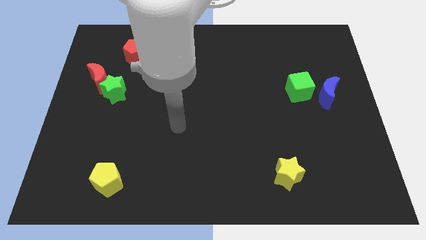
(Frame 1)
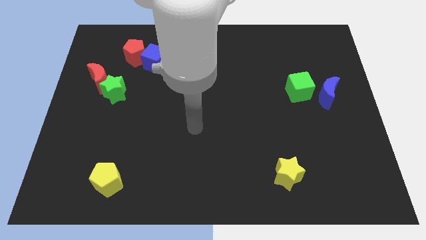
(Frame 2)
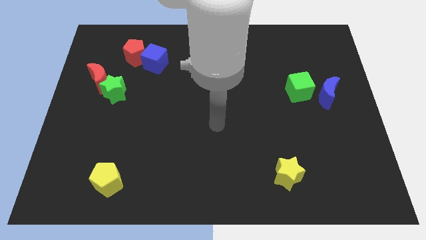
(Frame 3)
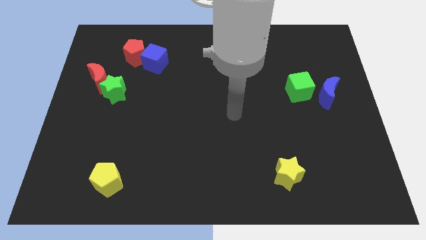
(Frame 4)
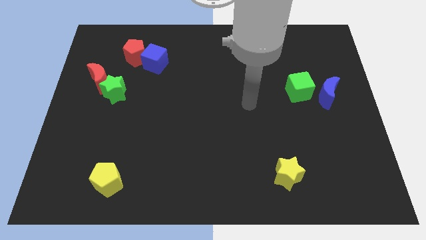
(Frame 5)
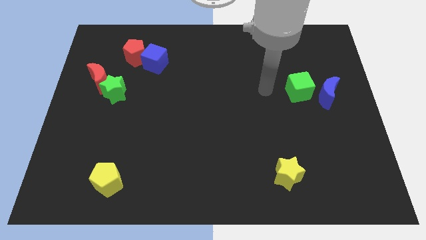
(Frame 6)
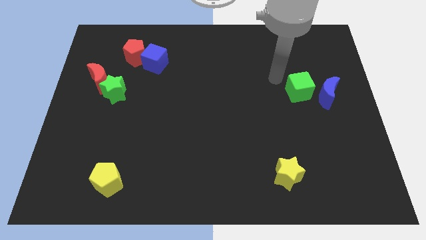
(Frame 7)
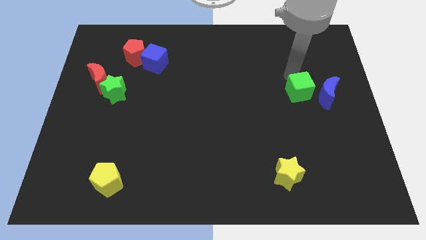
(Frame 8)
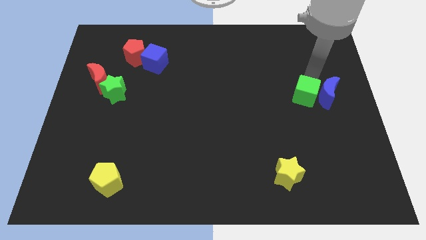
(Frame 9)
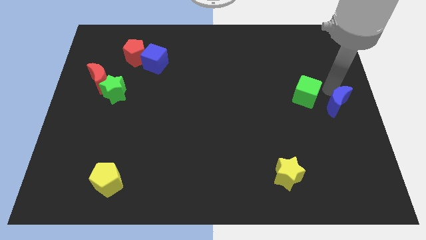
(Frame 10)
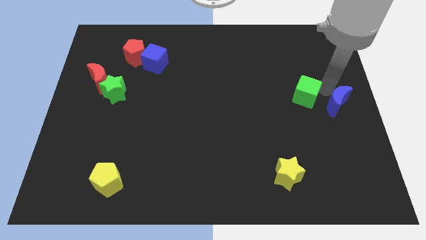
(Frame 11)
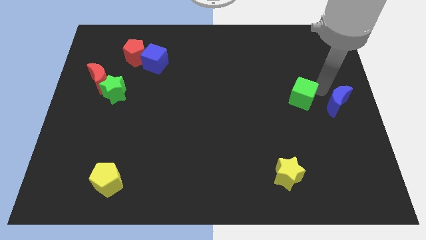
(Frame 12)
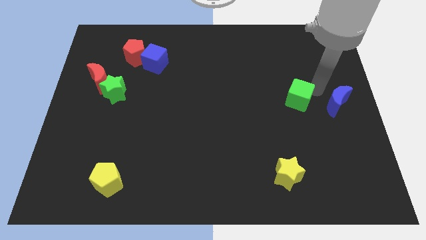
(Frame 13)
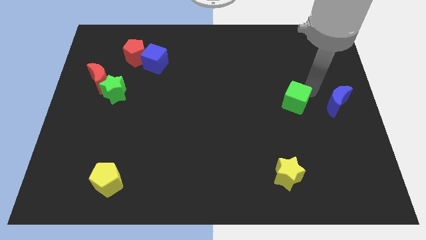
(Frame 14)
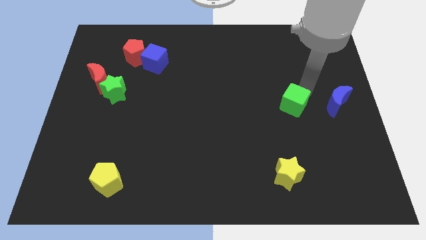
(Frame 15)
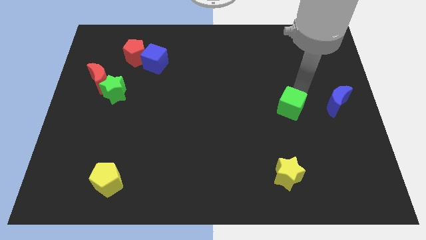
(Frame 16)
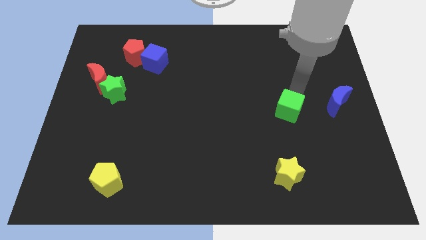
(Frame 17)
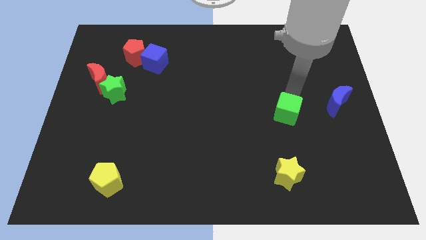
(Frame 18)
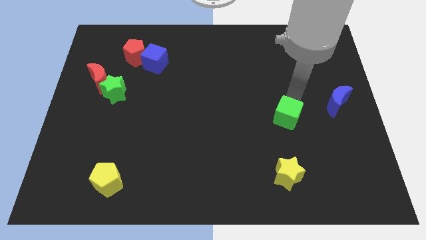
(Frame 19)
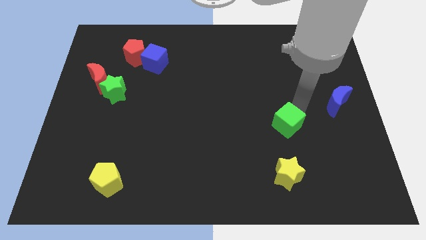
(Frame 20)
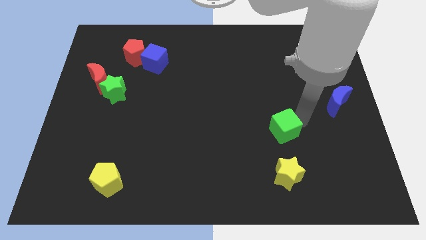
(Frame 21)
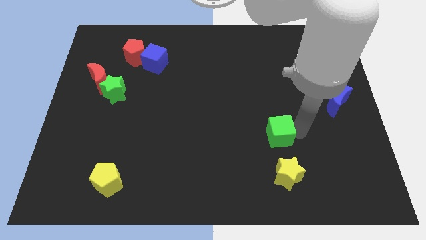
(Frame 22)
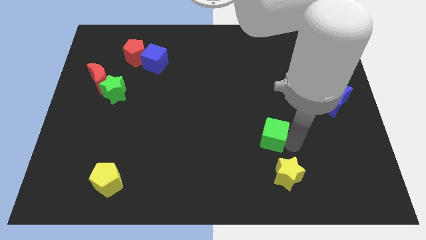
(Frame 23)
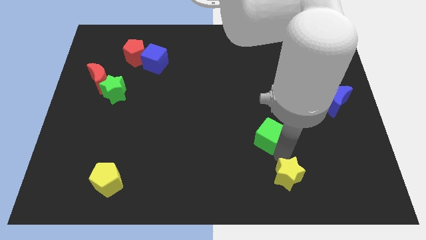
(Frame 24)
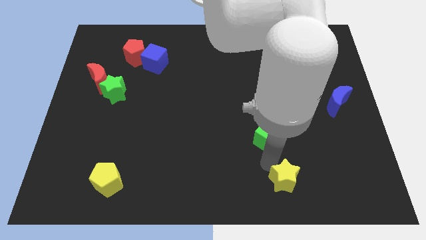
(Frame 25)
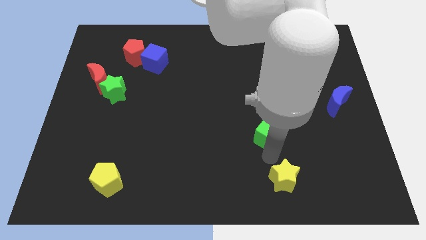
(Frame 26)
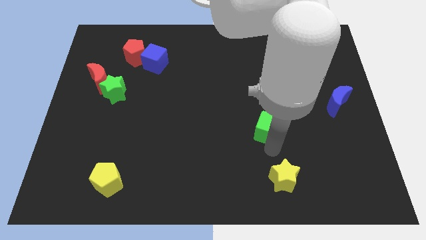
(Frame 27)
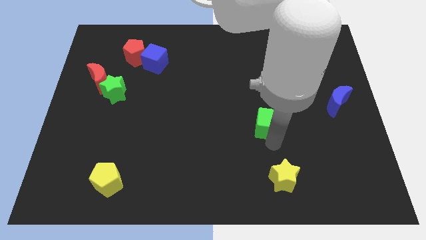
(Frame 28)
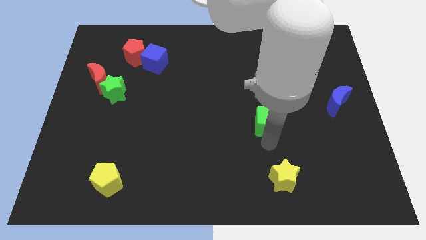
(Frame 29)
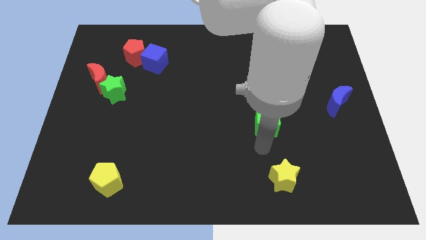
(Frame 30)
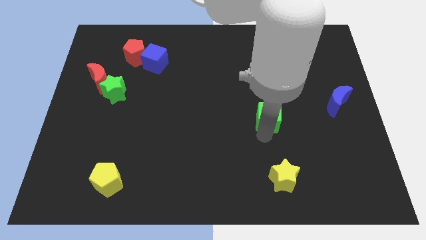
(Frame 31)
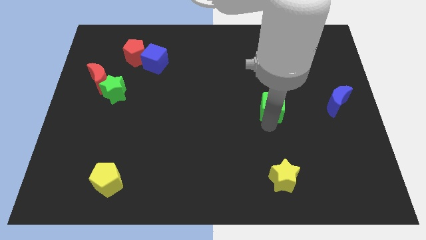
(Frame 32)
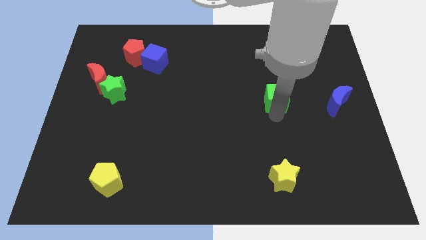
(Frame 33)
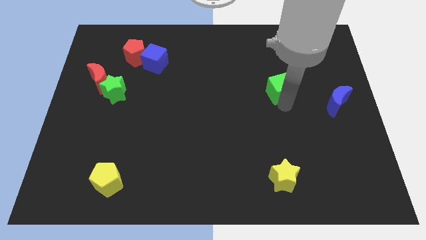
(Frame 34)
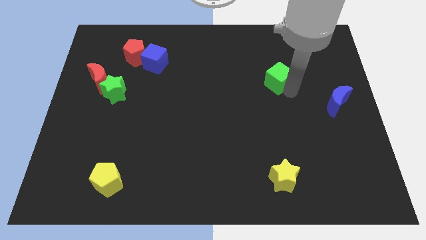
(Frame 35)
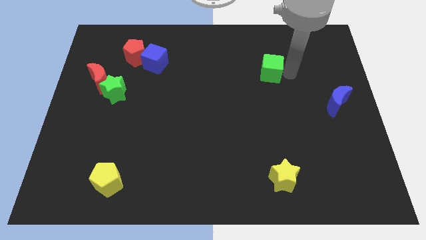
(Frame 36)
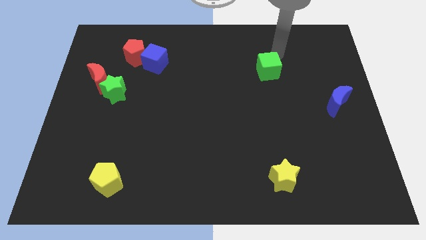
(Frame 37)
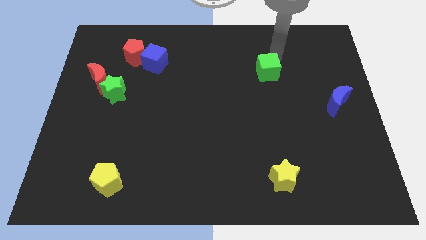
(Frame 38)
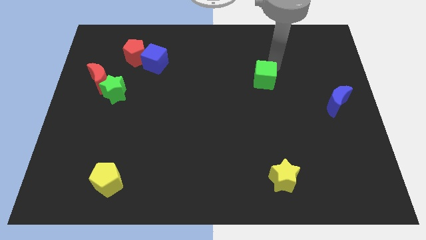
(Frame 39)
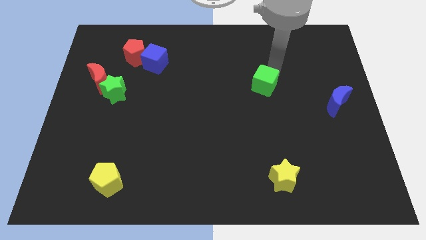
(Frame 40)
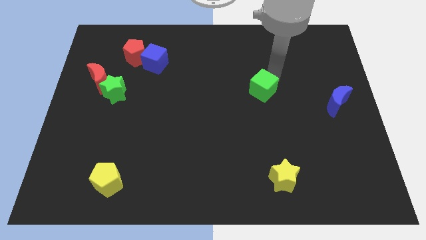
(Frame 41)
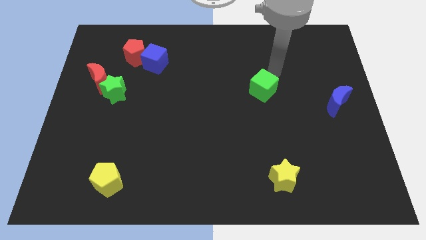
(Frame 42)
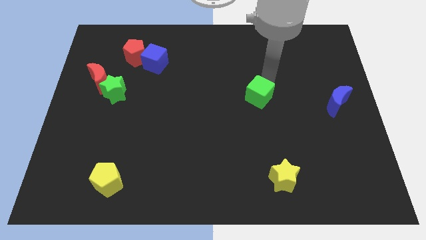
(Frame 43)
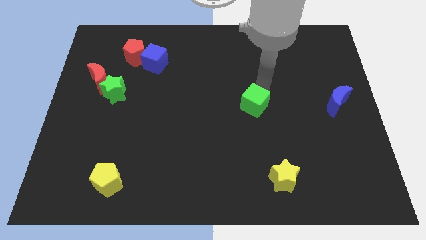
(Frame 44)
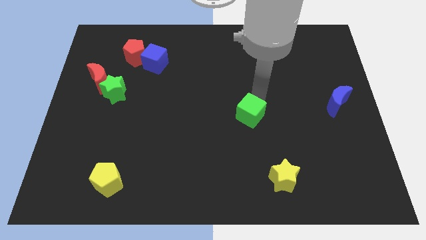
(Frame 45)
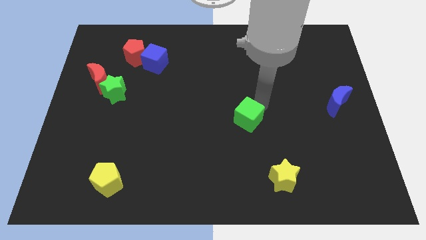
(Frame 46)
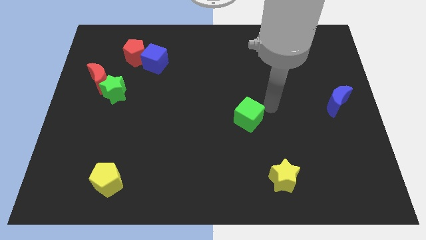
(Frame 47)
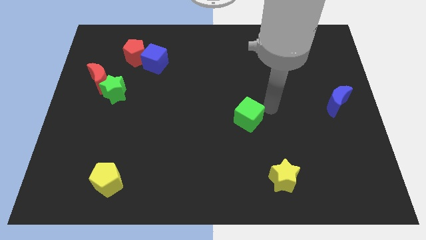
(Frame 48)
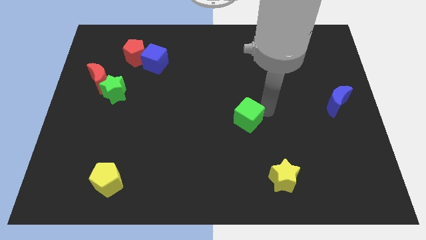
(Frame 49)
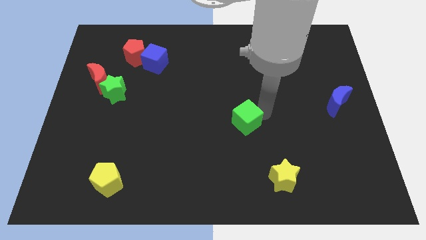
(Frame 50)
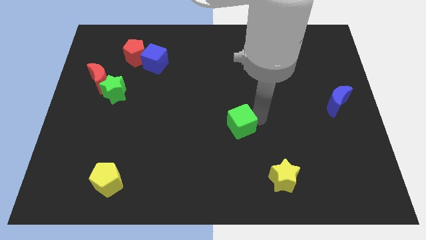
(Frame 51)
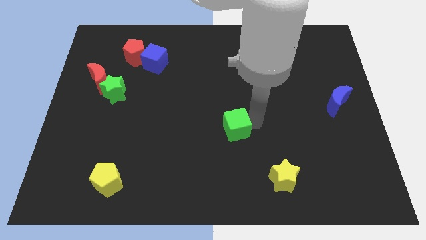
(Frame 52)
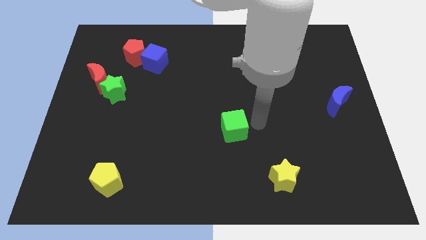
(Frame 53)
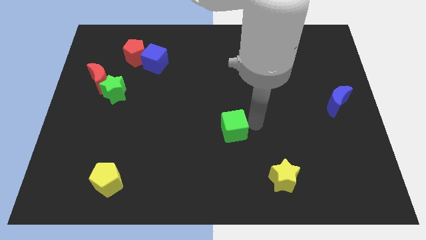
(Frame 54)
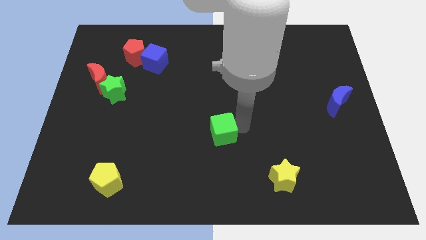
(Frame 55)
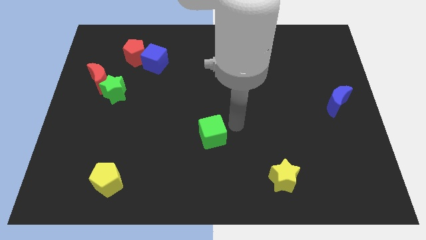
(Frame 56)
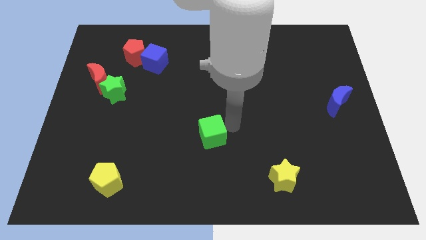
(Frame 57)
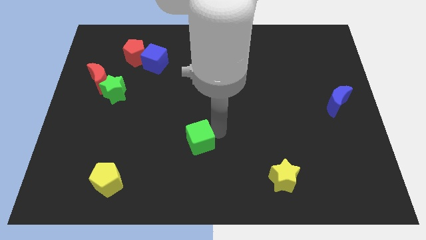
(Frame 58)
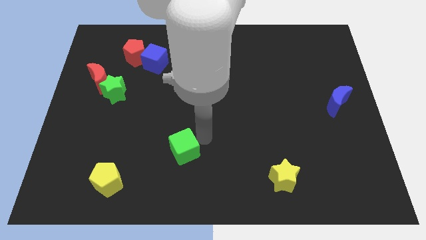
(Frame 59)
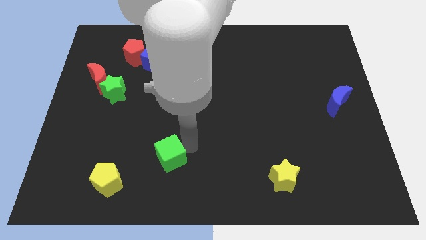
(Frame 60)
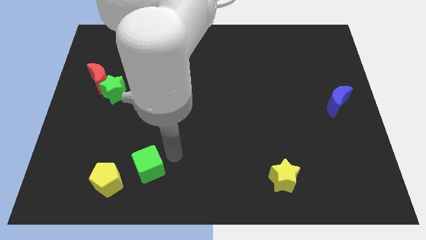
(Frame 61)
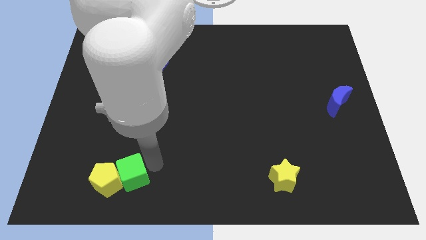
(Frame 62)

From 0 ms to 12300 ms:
put the green cube towards the yellow pentagon

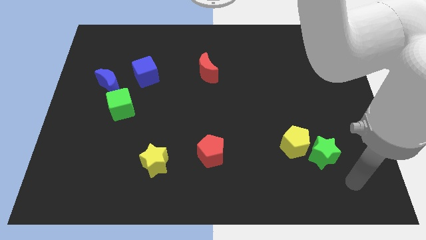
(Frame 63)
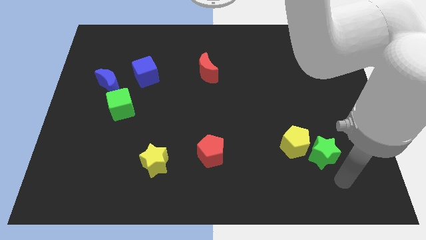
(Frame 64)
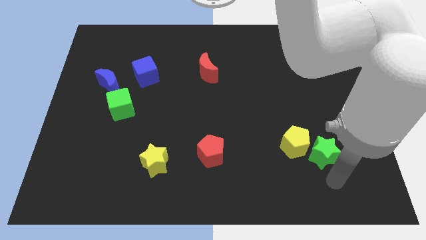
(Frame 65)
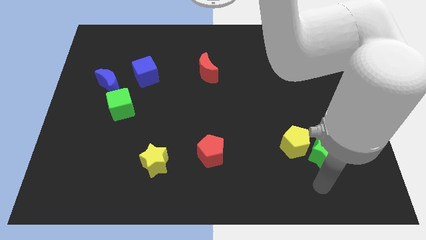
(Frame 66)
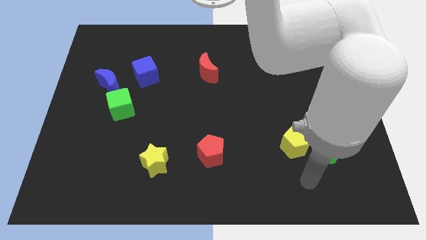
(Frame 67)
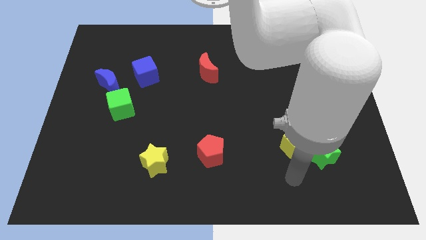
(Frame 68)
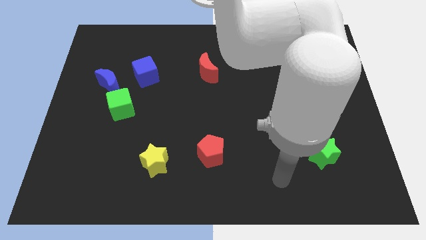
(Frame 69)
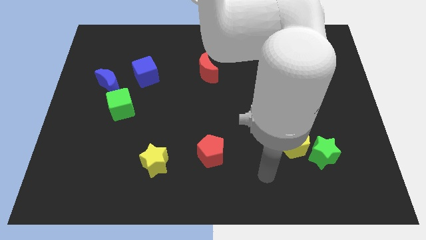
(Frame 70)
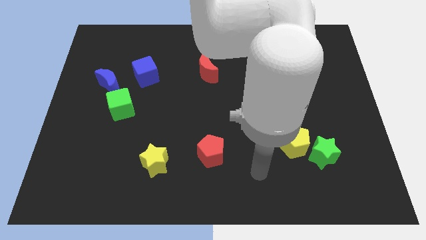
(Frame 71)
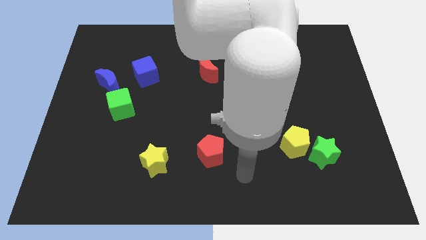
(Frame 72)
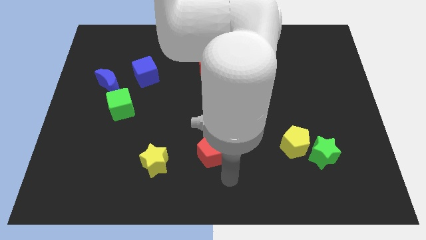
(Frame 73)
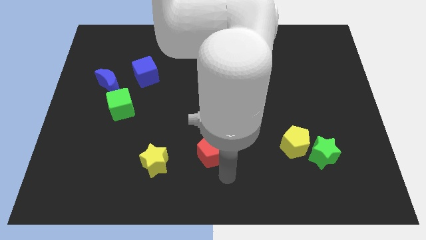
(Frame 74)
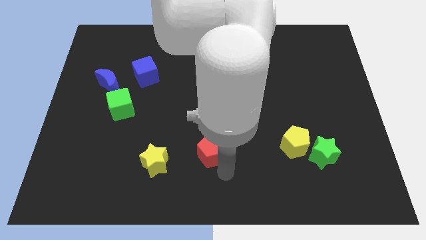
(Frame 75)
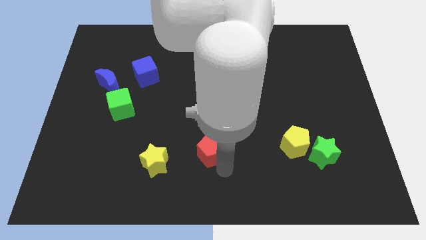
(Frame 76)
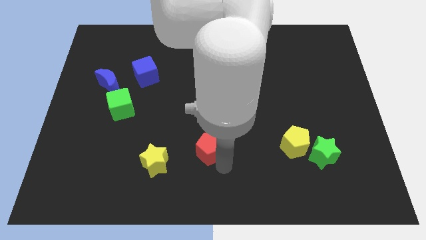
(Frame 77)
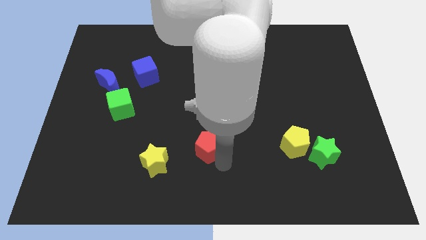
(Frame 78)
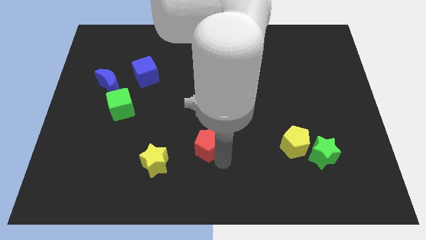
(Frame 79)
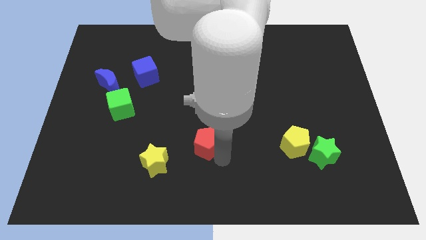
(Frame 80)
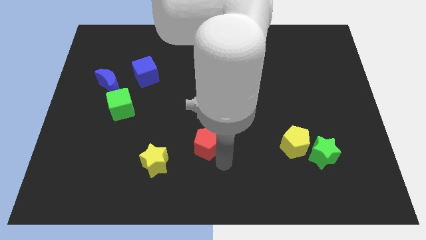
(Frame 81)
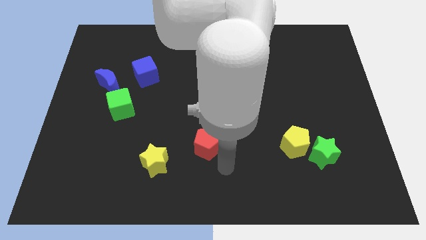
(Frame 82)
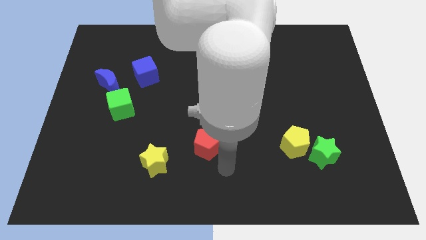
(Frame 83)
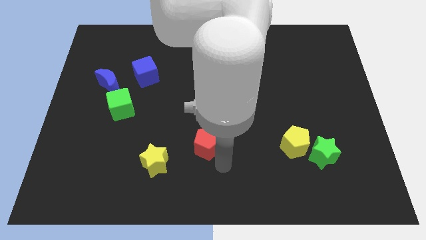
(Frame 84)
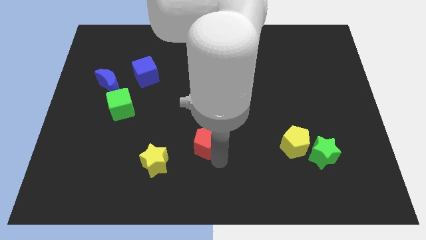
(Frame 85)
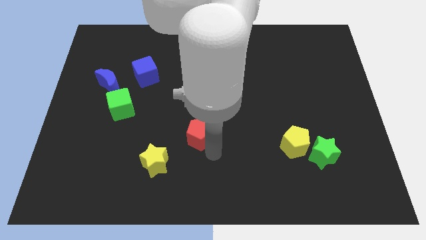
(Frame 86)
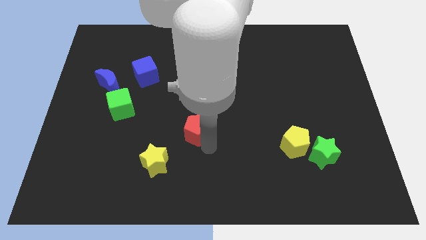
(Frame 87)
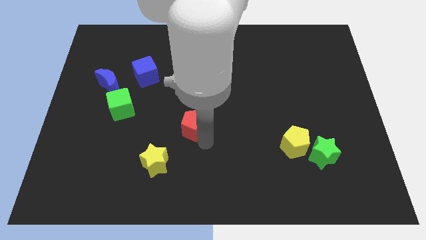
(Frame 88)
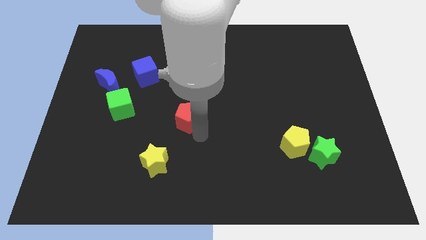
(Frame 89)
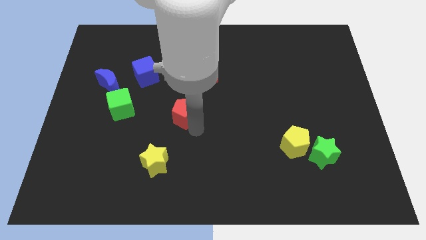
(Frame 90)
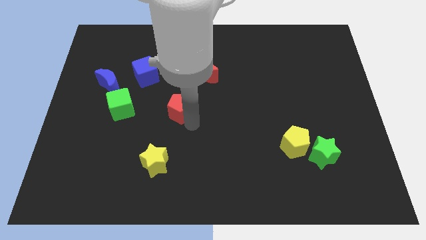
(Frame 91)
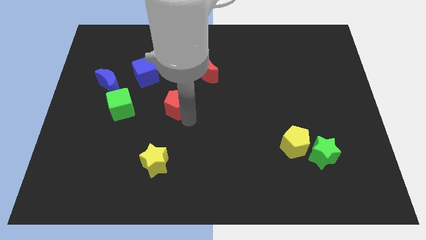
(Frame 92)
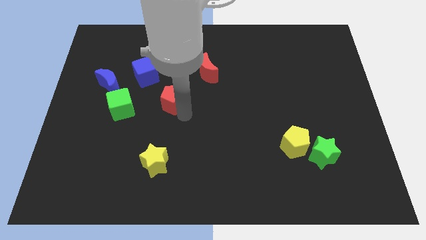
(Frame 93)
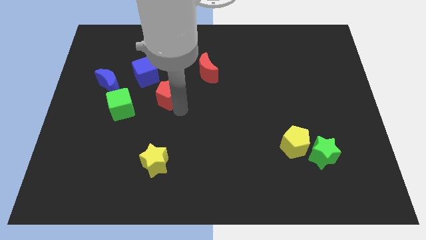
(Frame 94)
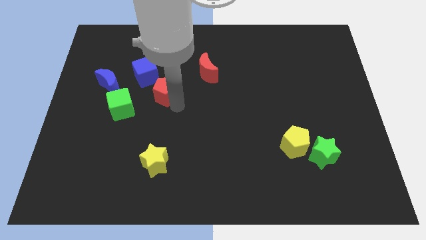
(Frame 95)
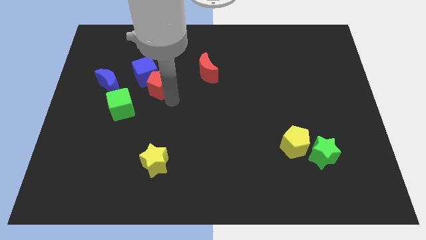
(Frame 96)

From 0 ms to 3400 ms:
move the red pentagon close to the blue cube
